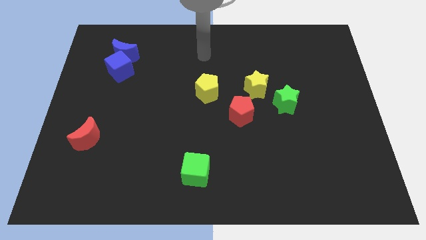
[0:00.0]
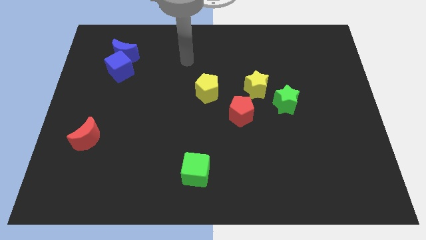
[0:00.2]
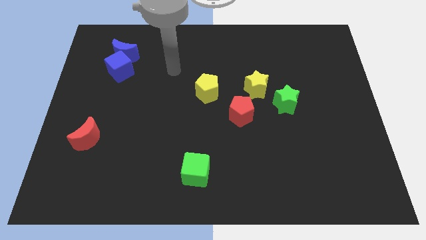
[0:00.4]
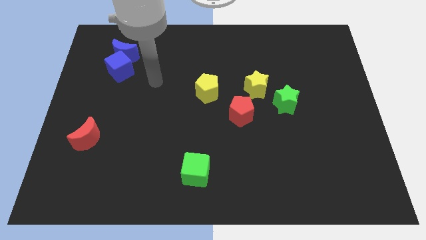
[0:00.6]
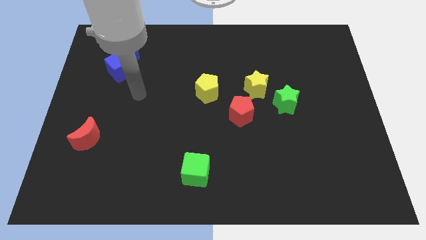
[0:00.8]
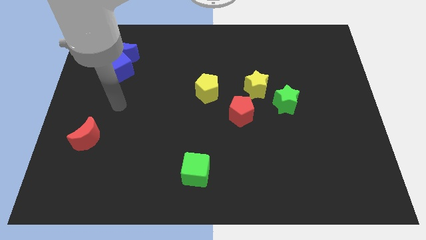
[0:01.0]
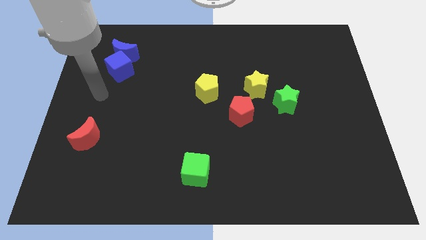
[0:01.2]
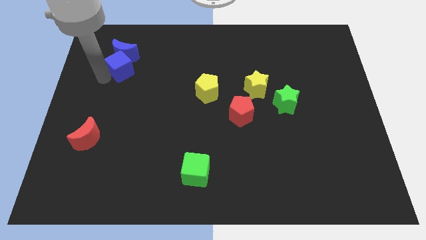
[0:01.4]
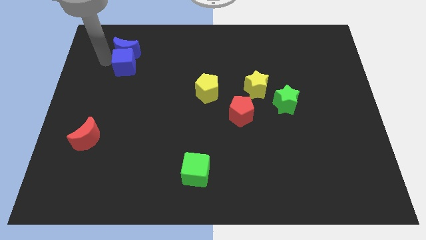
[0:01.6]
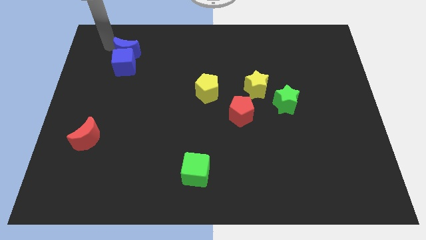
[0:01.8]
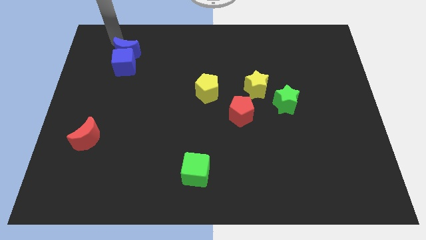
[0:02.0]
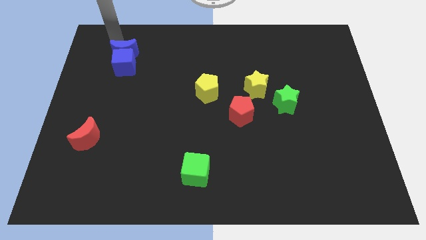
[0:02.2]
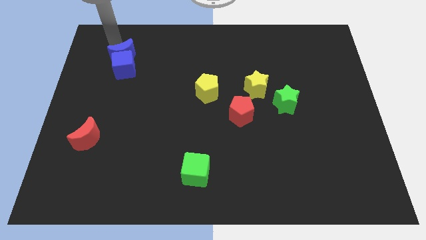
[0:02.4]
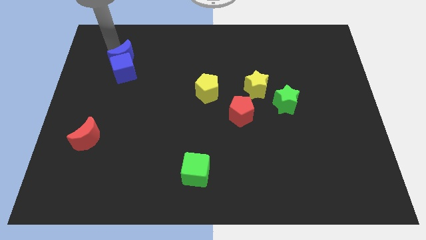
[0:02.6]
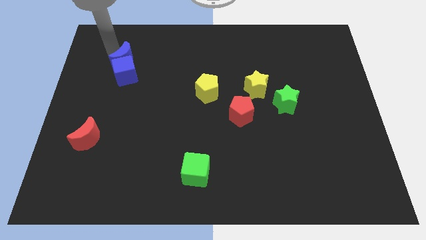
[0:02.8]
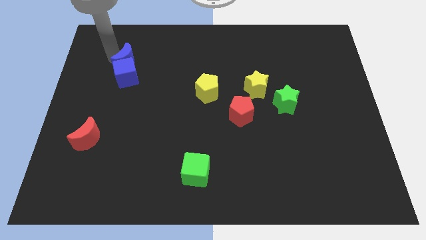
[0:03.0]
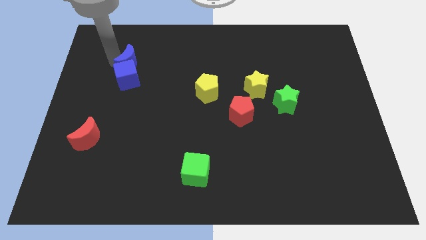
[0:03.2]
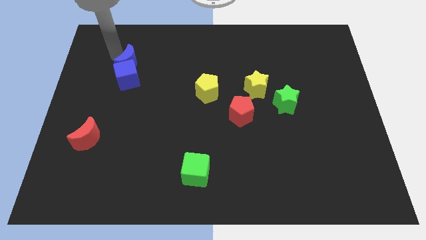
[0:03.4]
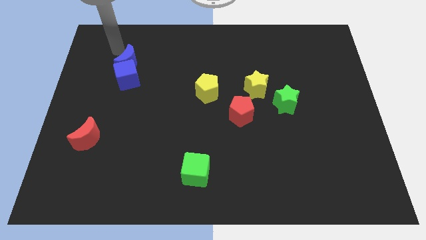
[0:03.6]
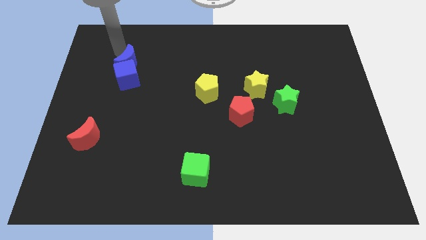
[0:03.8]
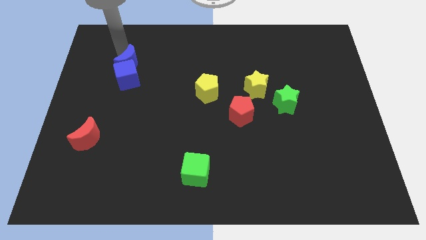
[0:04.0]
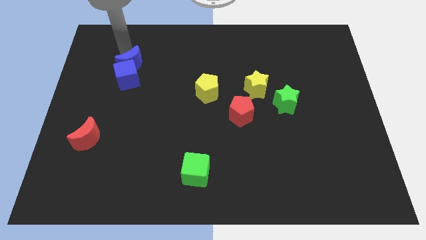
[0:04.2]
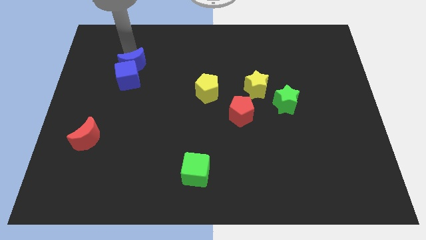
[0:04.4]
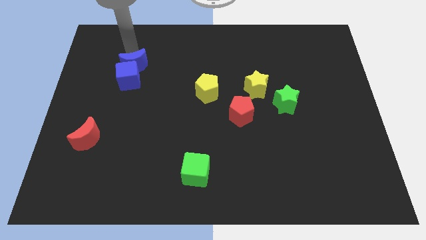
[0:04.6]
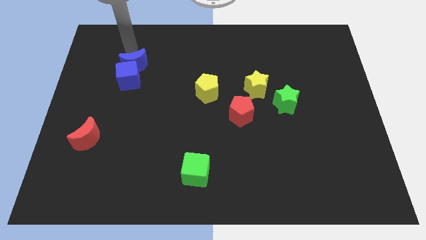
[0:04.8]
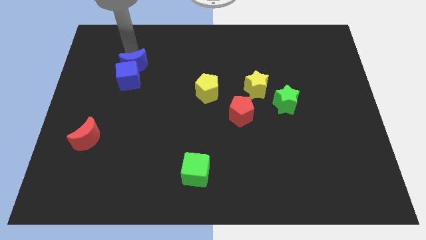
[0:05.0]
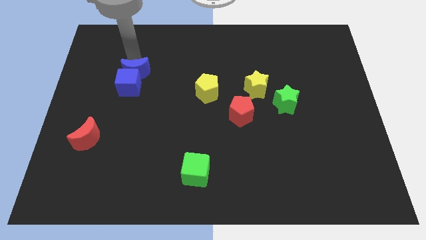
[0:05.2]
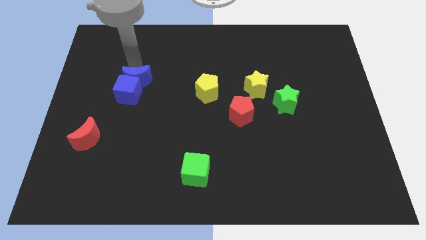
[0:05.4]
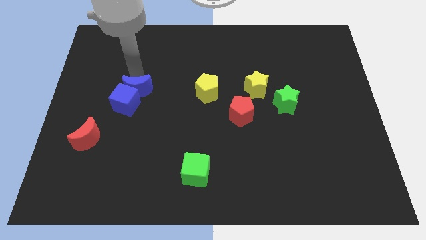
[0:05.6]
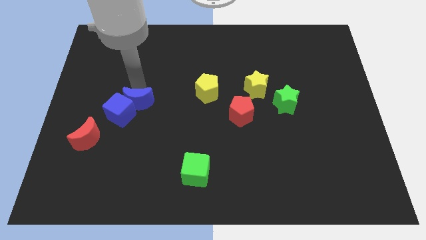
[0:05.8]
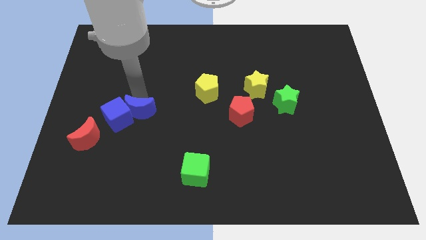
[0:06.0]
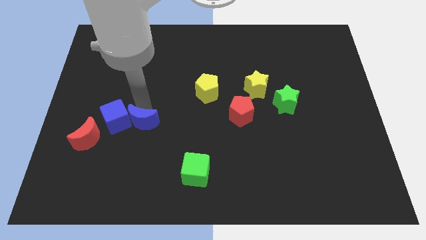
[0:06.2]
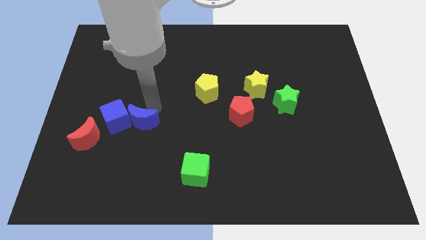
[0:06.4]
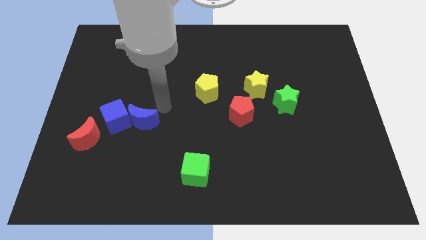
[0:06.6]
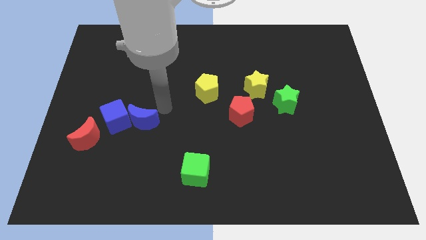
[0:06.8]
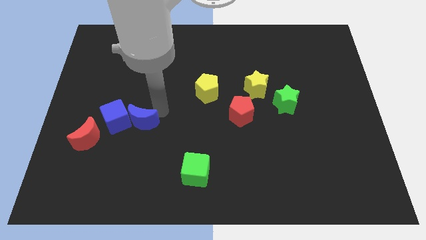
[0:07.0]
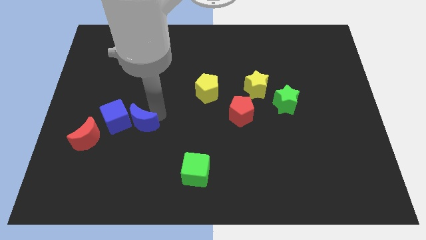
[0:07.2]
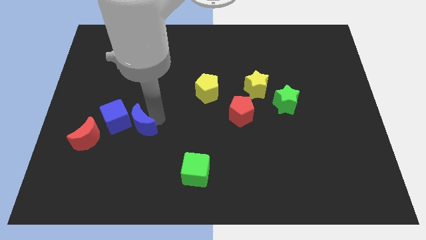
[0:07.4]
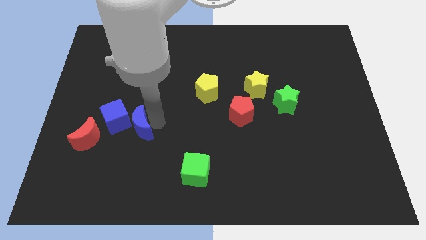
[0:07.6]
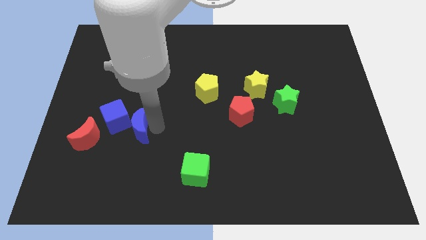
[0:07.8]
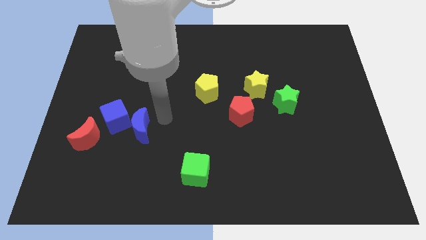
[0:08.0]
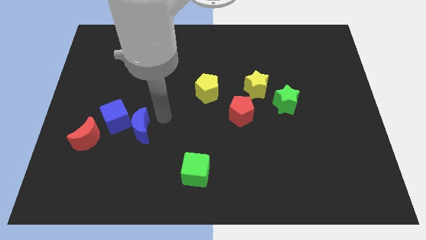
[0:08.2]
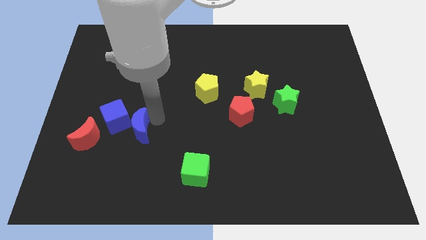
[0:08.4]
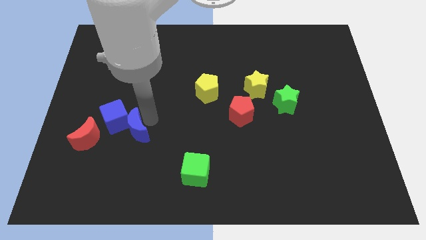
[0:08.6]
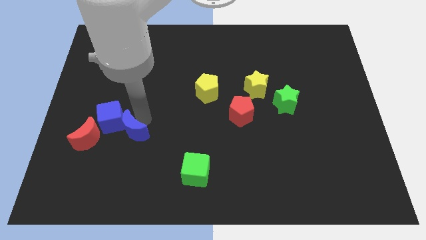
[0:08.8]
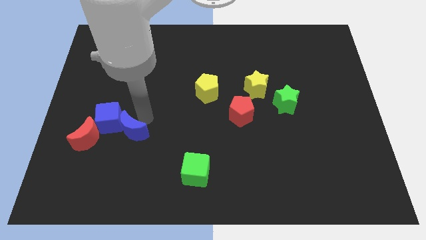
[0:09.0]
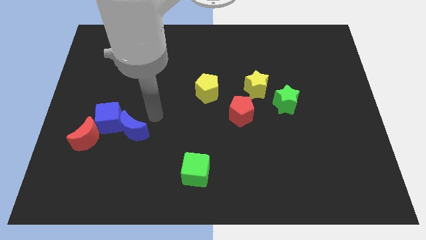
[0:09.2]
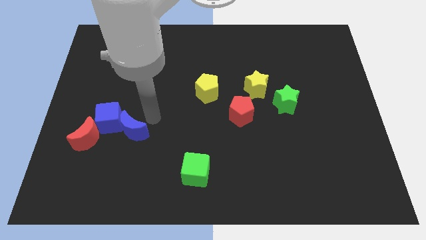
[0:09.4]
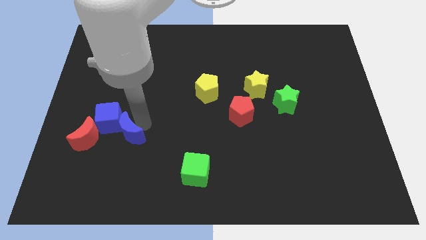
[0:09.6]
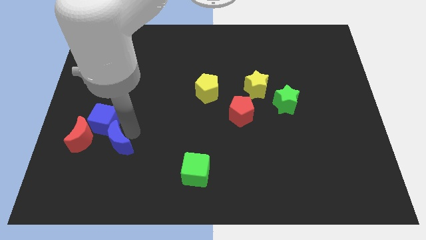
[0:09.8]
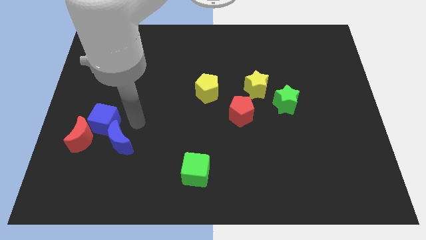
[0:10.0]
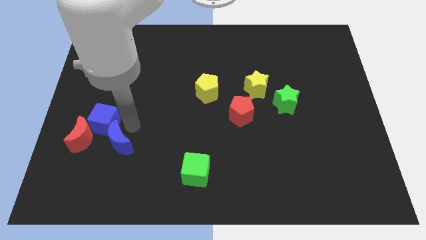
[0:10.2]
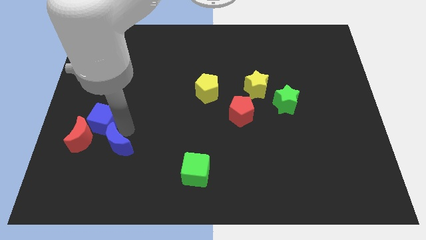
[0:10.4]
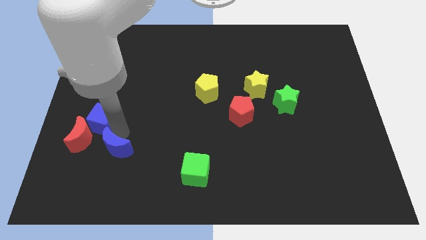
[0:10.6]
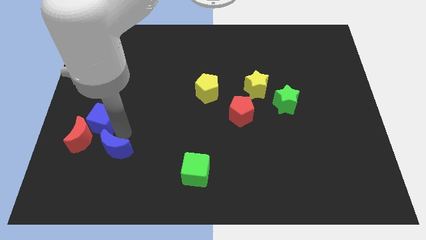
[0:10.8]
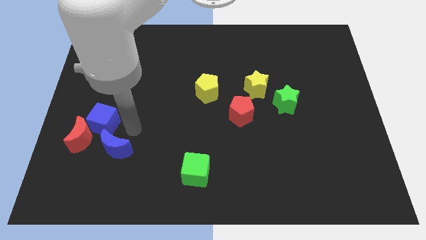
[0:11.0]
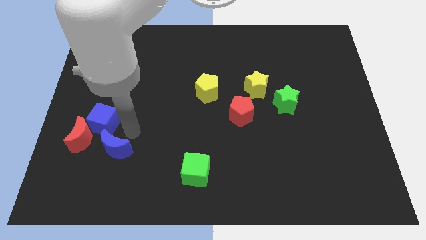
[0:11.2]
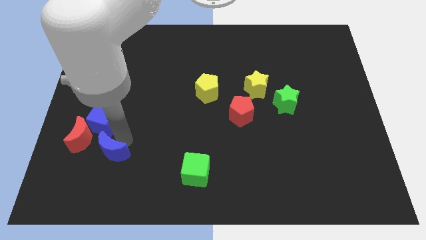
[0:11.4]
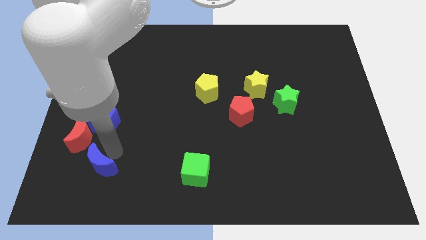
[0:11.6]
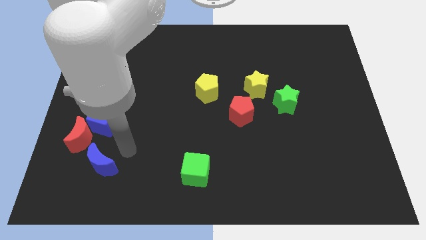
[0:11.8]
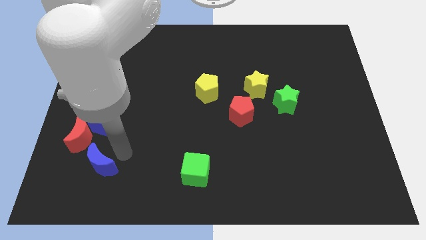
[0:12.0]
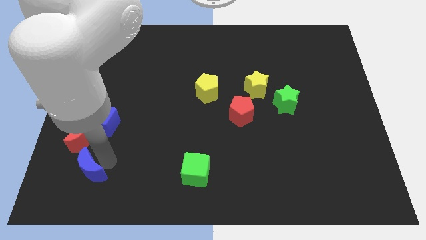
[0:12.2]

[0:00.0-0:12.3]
push the blue moon to the bottom of the red moon

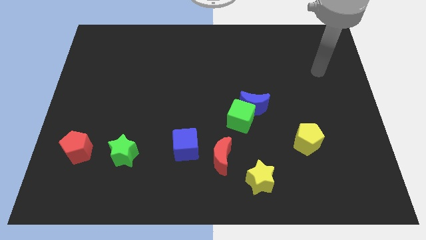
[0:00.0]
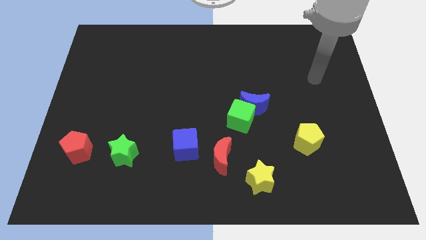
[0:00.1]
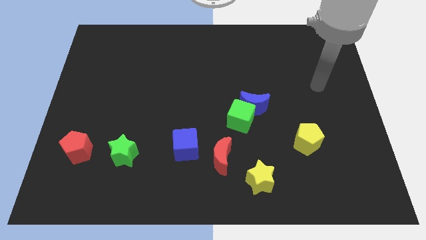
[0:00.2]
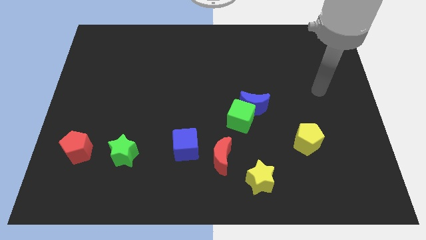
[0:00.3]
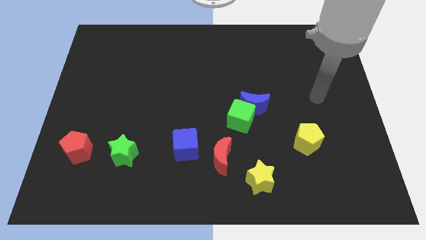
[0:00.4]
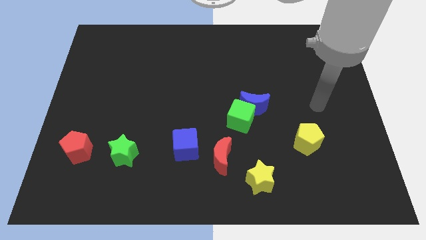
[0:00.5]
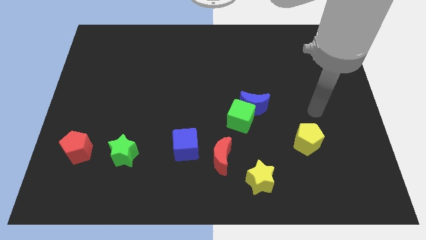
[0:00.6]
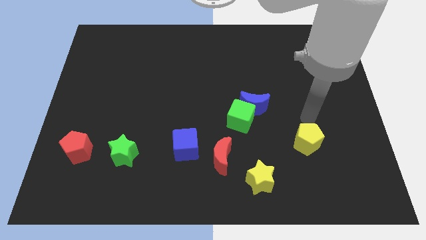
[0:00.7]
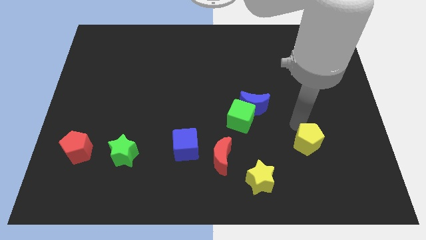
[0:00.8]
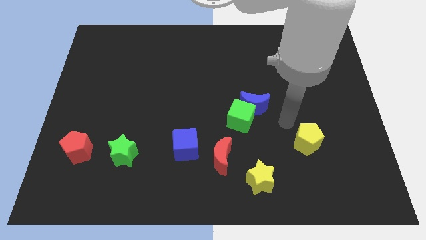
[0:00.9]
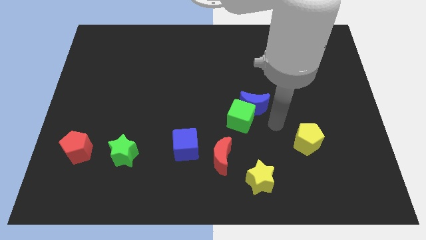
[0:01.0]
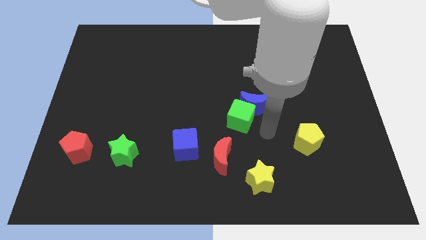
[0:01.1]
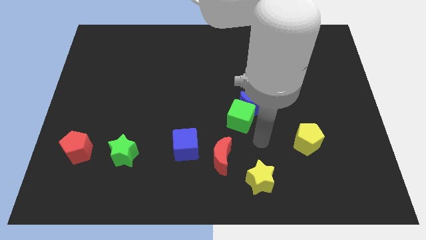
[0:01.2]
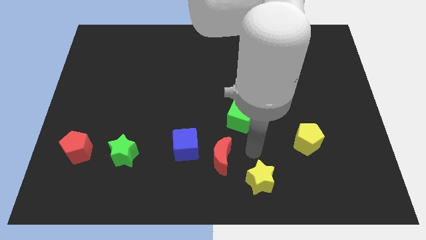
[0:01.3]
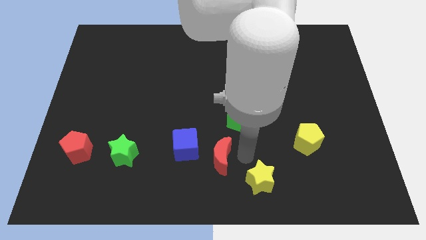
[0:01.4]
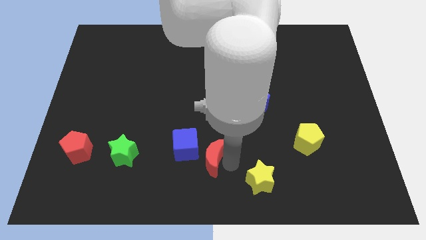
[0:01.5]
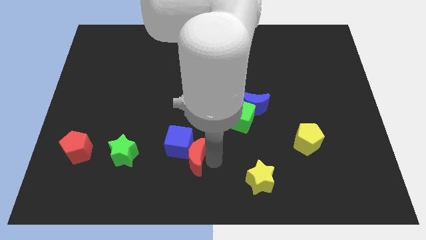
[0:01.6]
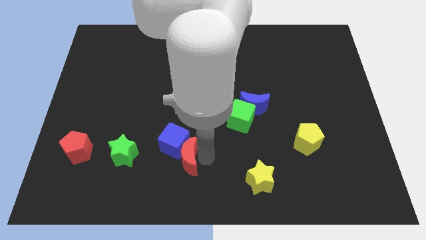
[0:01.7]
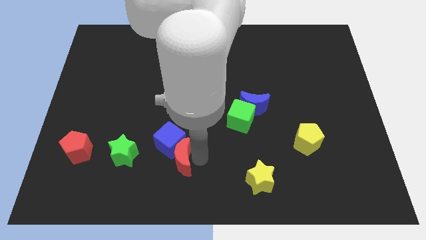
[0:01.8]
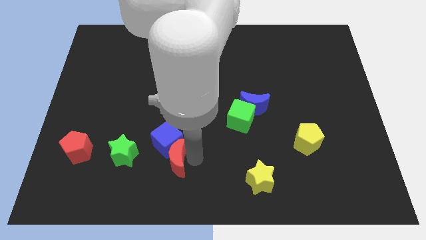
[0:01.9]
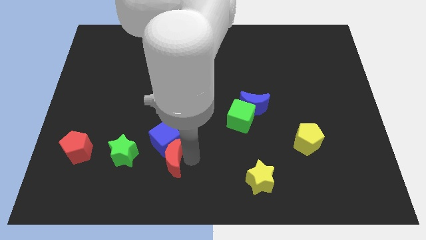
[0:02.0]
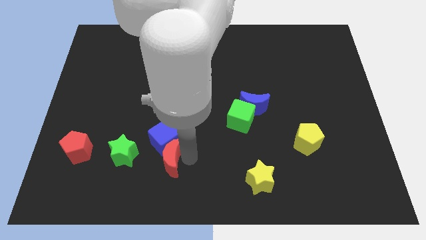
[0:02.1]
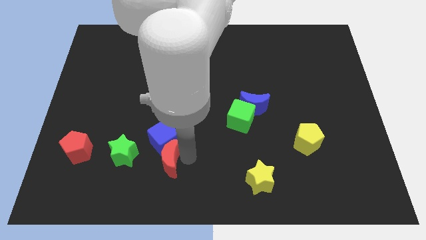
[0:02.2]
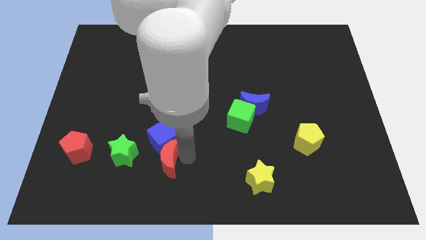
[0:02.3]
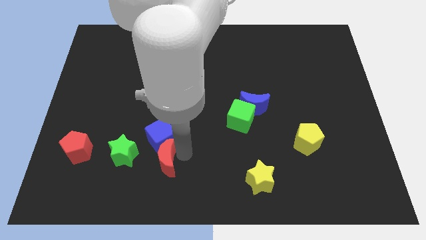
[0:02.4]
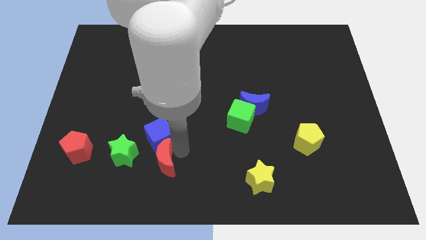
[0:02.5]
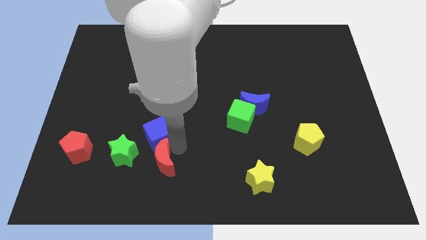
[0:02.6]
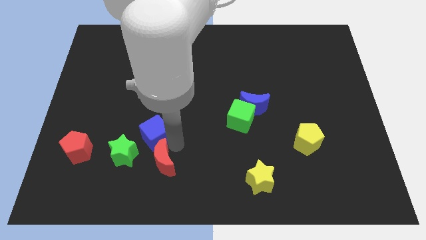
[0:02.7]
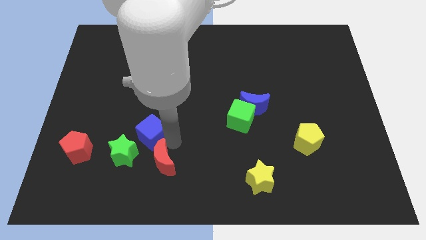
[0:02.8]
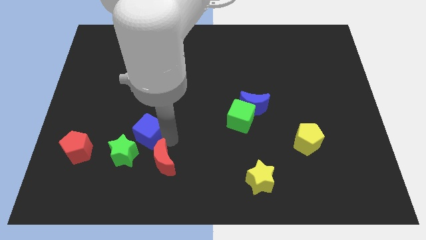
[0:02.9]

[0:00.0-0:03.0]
slide the blue cube to the top of the green star
